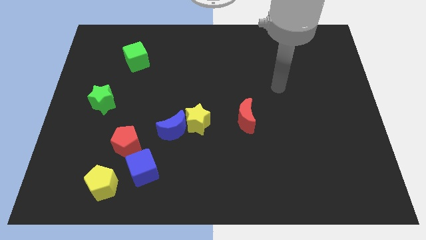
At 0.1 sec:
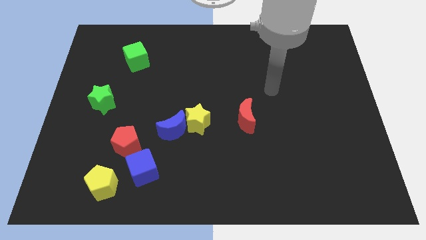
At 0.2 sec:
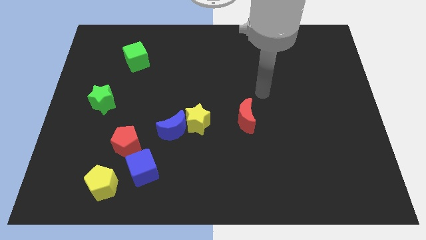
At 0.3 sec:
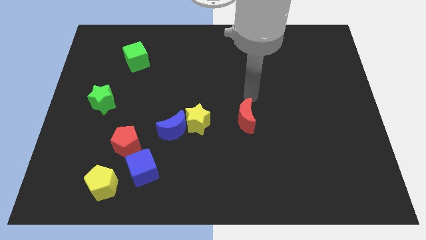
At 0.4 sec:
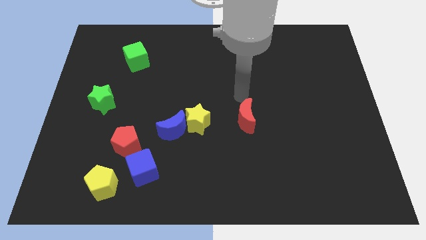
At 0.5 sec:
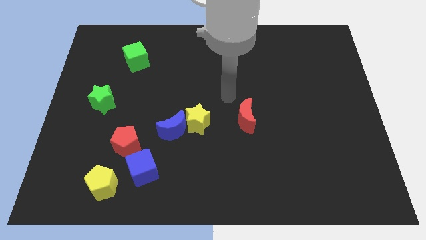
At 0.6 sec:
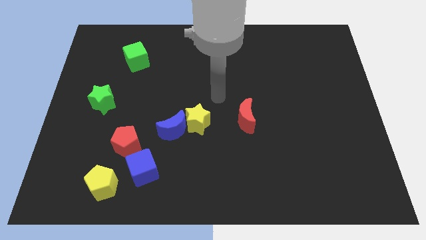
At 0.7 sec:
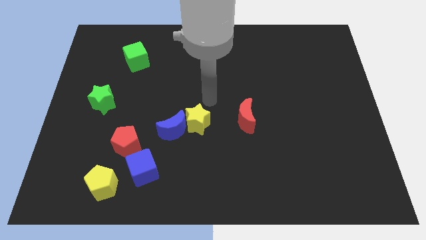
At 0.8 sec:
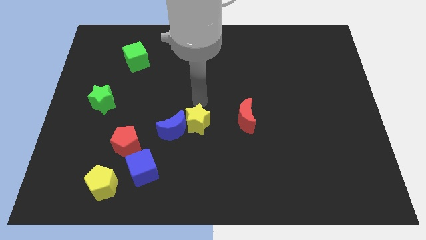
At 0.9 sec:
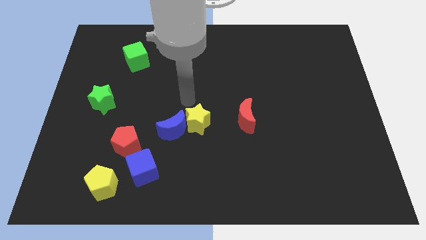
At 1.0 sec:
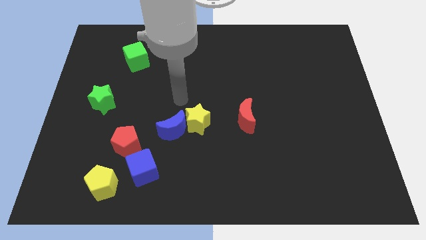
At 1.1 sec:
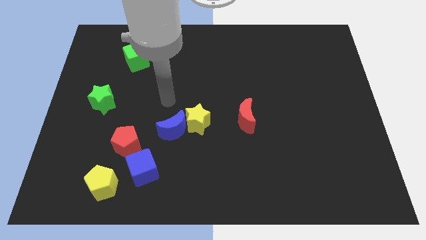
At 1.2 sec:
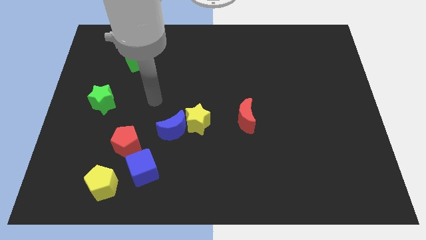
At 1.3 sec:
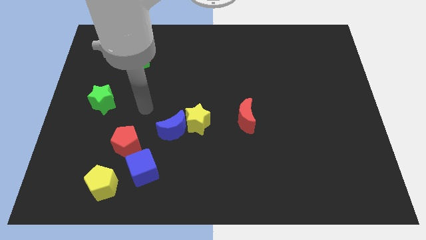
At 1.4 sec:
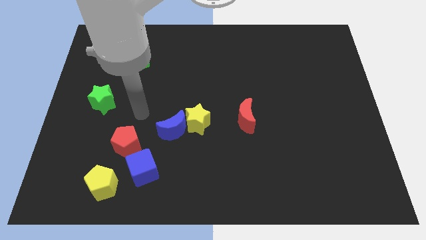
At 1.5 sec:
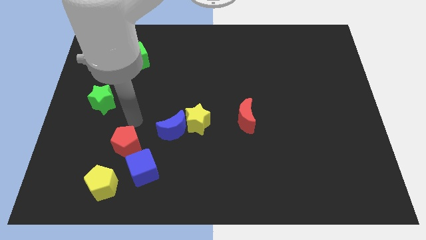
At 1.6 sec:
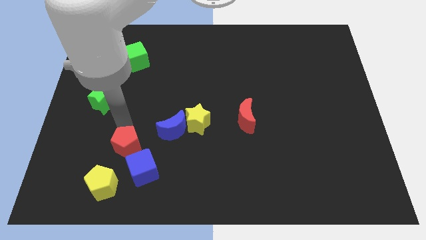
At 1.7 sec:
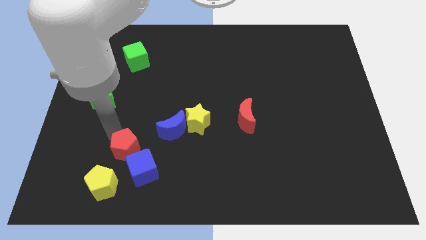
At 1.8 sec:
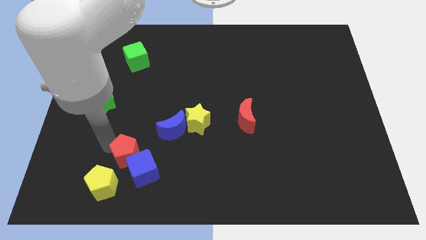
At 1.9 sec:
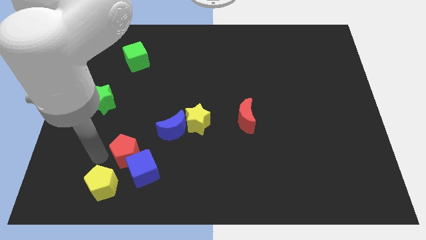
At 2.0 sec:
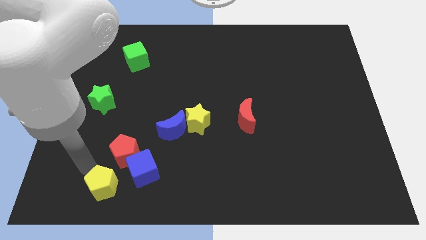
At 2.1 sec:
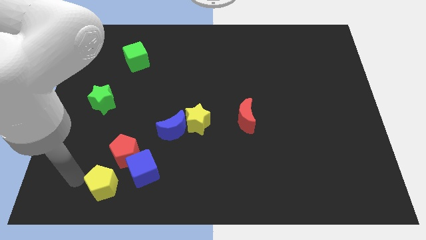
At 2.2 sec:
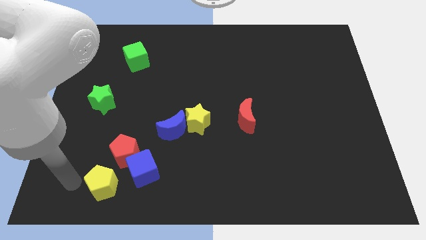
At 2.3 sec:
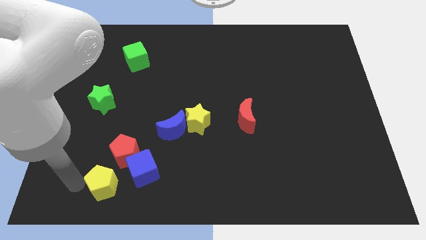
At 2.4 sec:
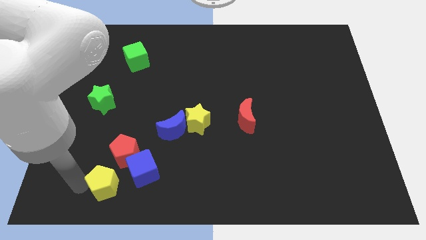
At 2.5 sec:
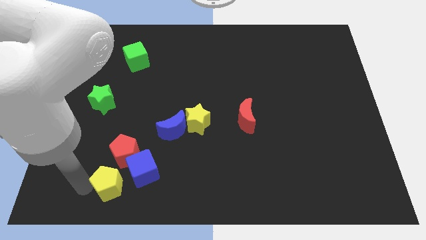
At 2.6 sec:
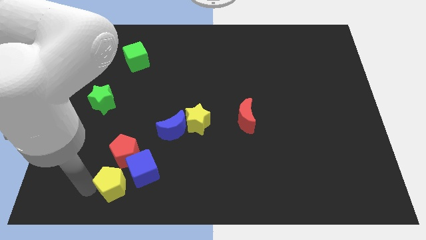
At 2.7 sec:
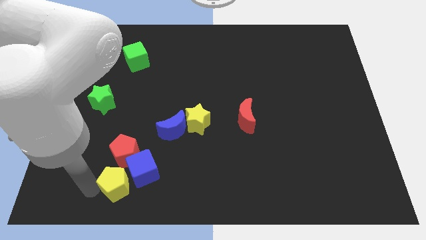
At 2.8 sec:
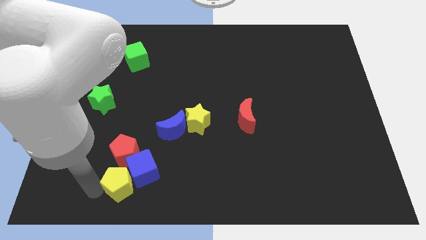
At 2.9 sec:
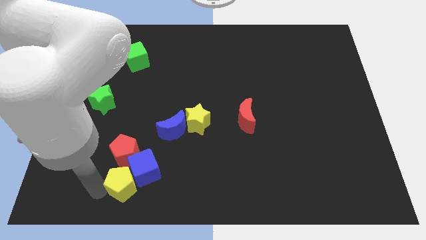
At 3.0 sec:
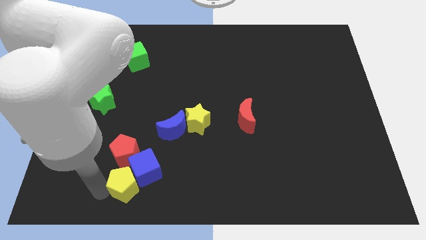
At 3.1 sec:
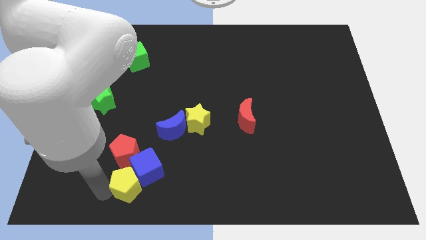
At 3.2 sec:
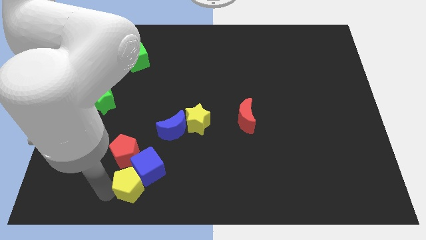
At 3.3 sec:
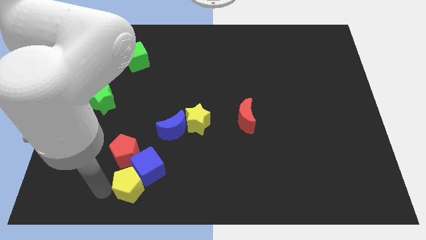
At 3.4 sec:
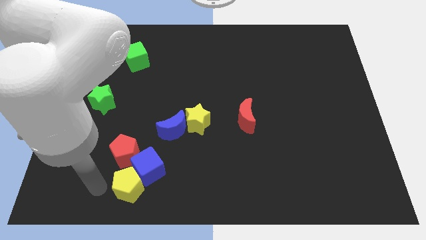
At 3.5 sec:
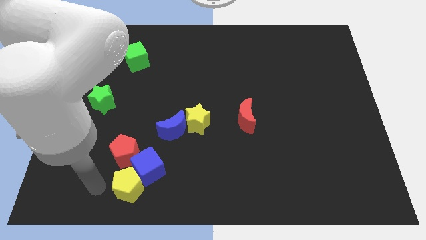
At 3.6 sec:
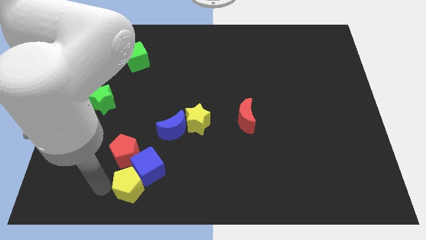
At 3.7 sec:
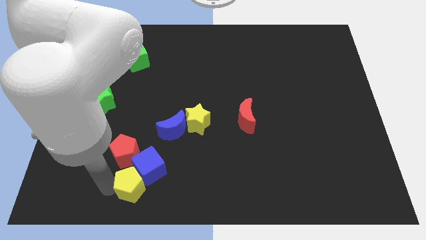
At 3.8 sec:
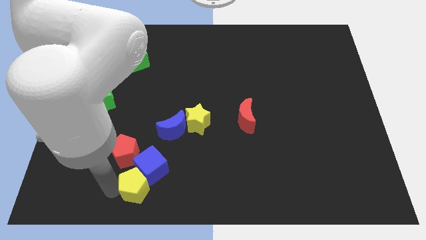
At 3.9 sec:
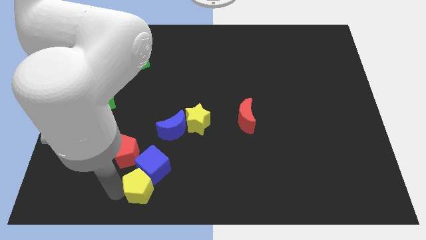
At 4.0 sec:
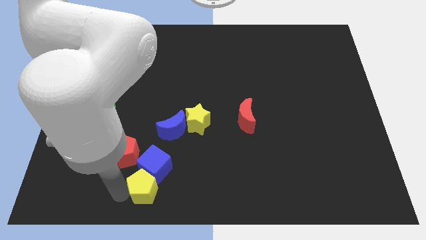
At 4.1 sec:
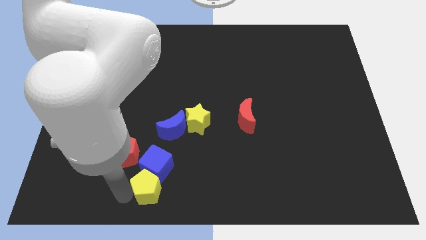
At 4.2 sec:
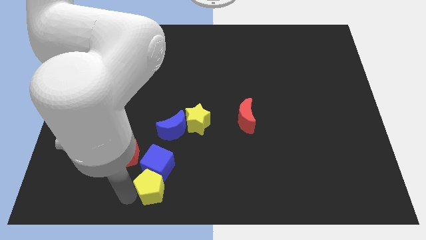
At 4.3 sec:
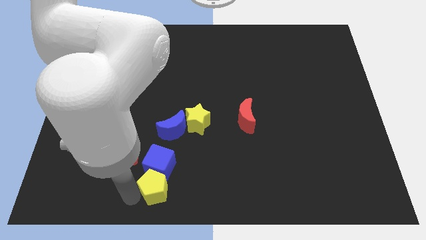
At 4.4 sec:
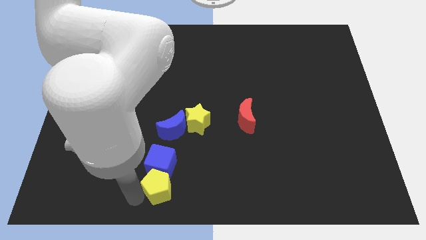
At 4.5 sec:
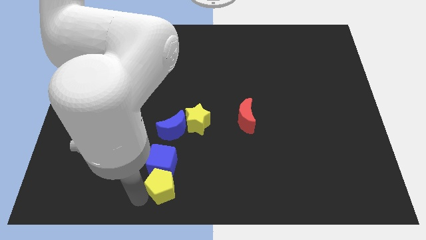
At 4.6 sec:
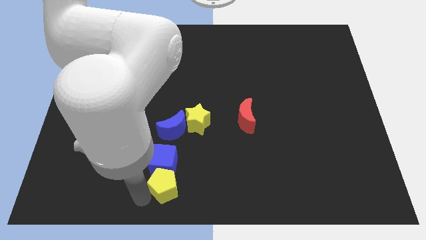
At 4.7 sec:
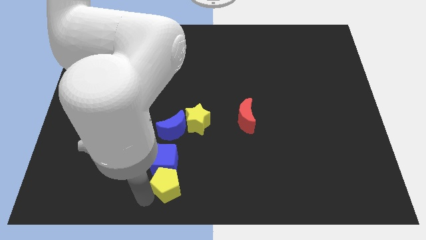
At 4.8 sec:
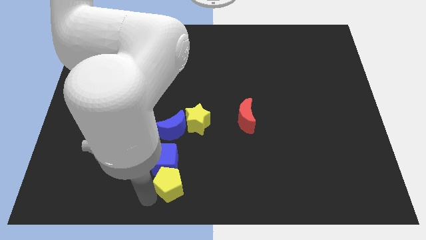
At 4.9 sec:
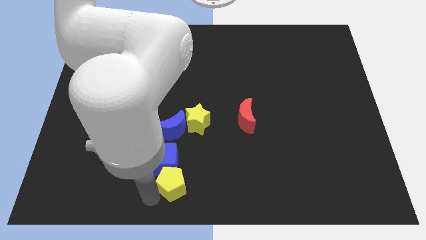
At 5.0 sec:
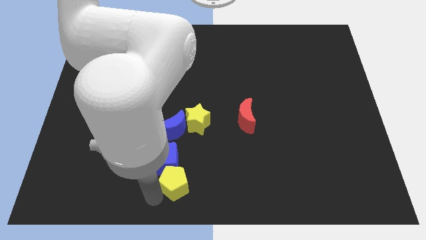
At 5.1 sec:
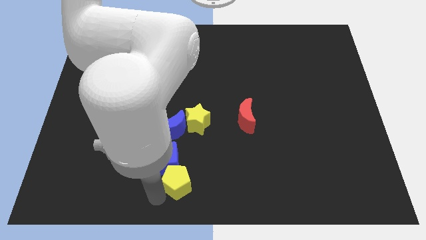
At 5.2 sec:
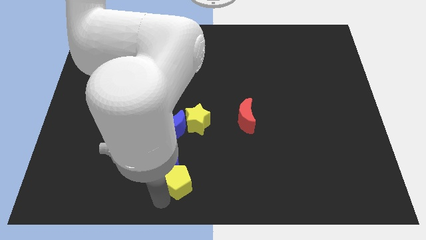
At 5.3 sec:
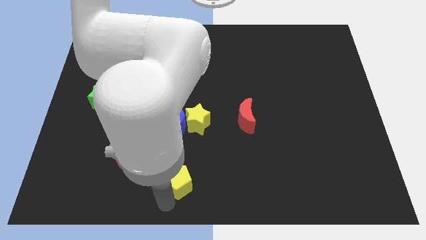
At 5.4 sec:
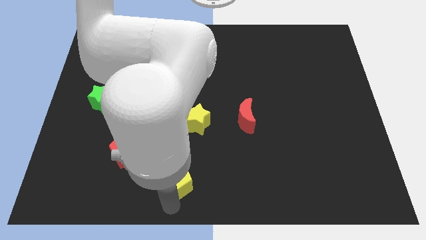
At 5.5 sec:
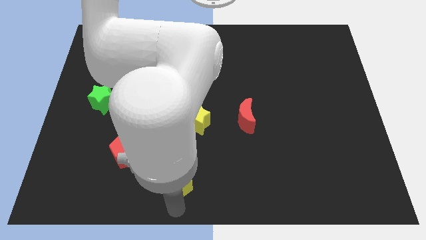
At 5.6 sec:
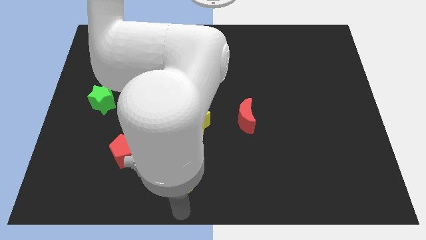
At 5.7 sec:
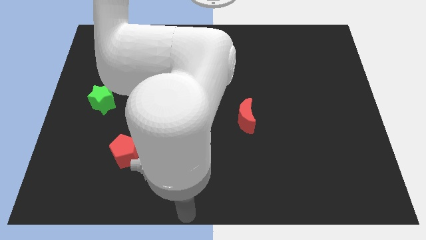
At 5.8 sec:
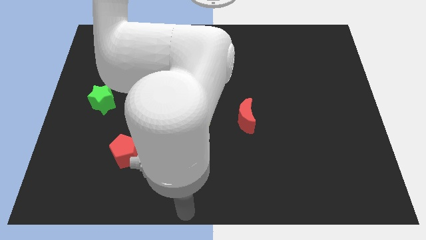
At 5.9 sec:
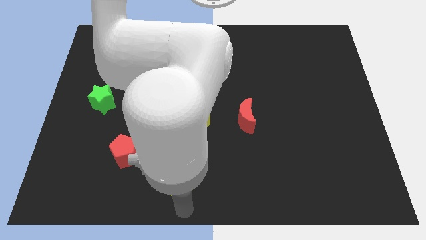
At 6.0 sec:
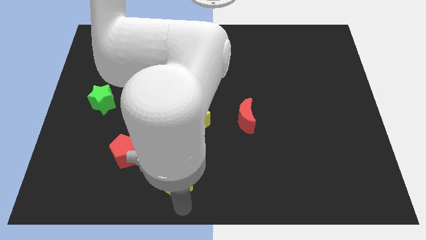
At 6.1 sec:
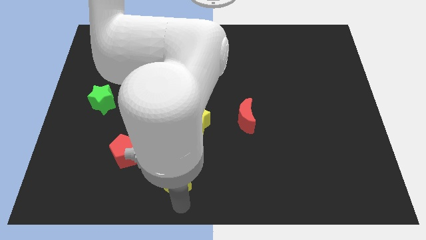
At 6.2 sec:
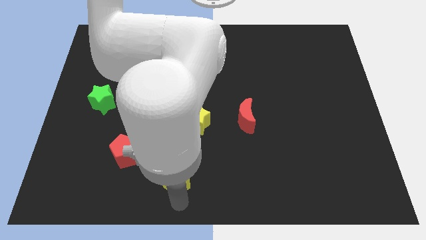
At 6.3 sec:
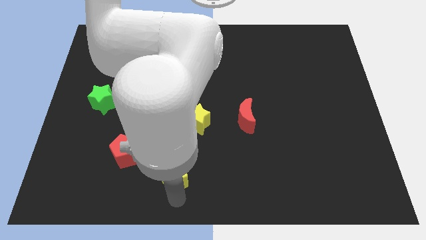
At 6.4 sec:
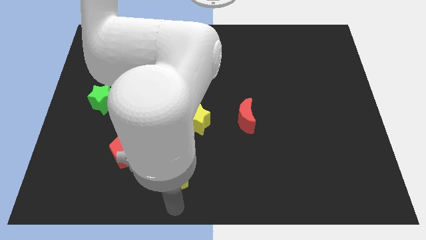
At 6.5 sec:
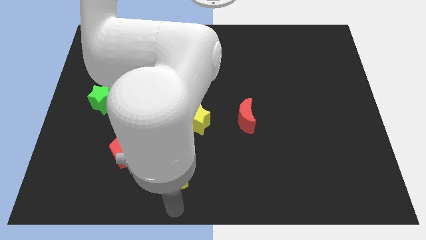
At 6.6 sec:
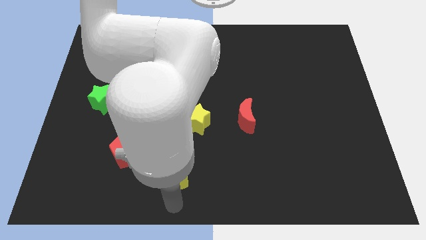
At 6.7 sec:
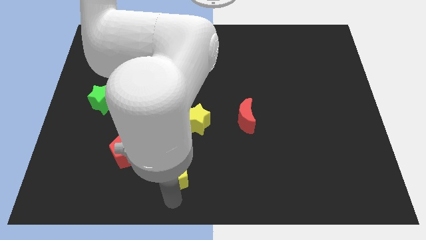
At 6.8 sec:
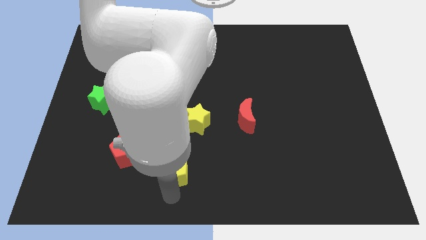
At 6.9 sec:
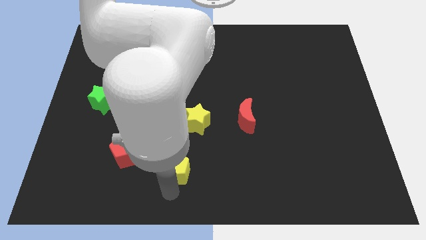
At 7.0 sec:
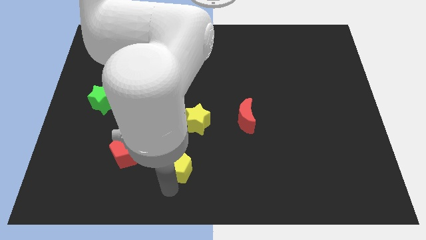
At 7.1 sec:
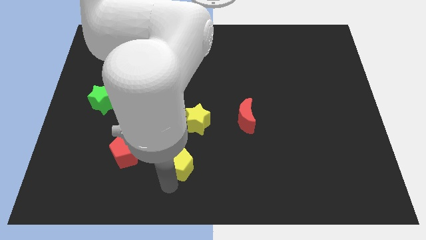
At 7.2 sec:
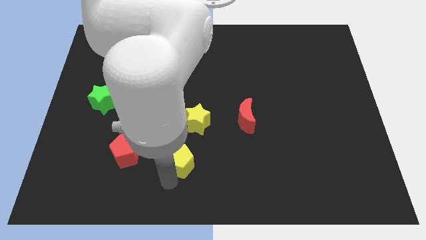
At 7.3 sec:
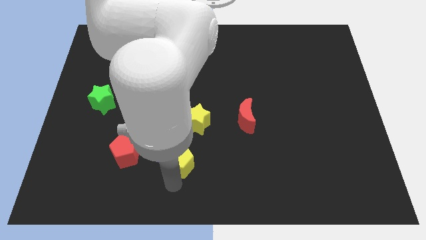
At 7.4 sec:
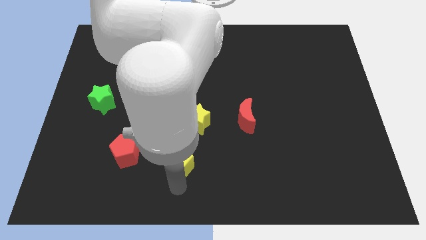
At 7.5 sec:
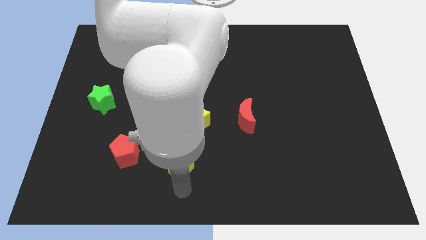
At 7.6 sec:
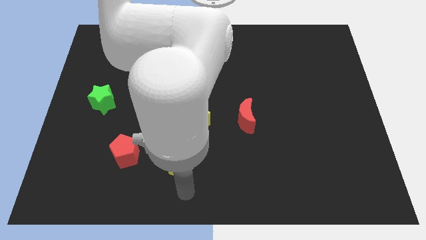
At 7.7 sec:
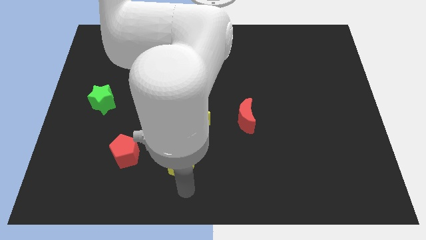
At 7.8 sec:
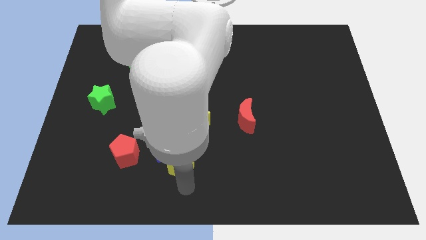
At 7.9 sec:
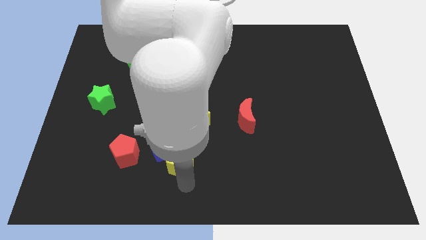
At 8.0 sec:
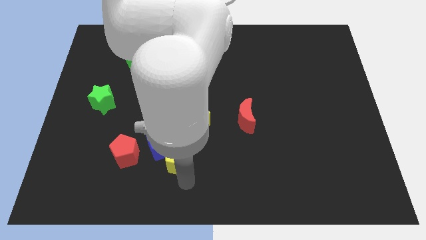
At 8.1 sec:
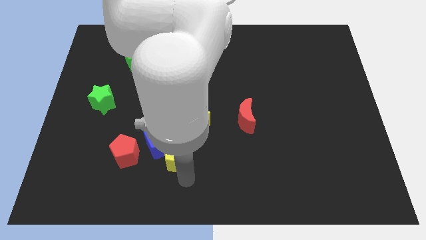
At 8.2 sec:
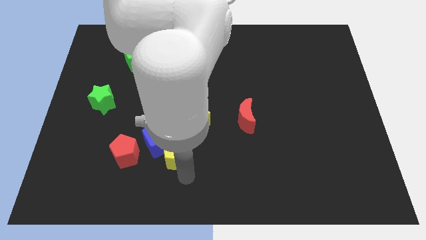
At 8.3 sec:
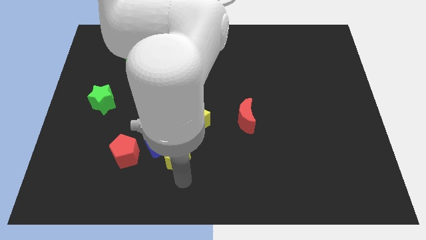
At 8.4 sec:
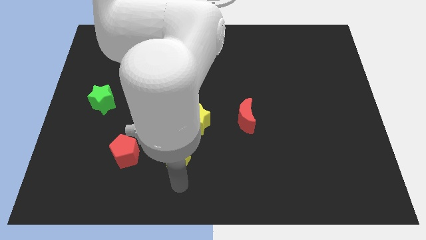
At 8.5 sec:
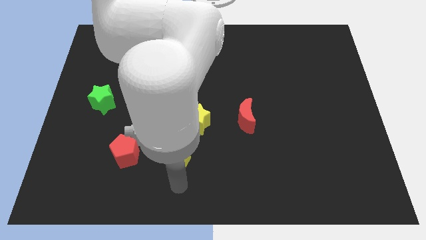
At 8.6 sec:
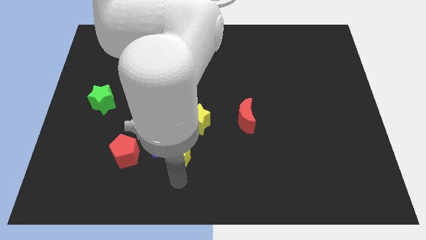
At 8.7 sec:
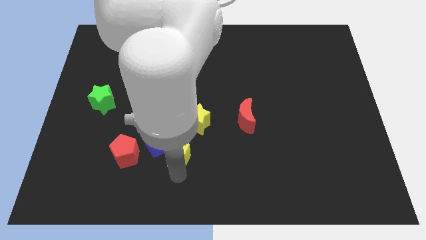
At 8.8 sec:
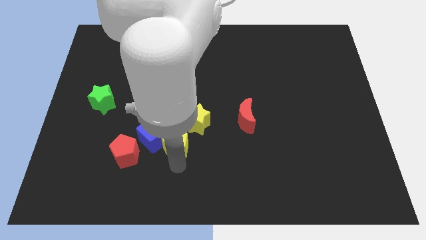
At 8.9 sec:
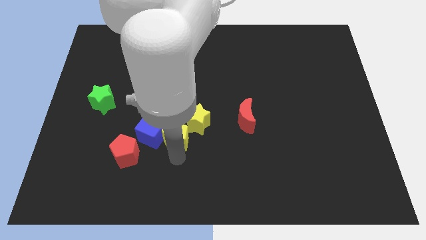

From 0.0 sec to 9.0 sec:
slide the yellow pentagon towards the blue moon
